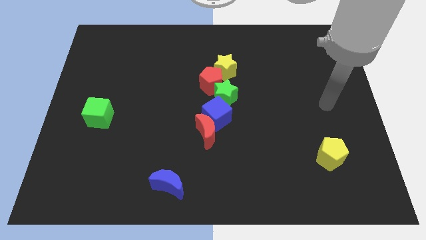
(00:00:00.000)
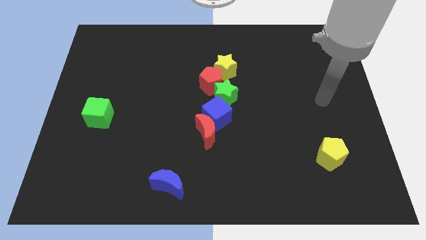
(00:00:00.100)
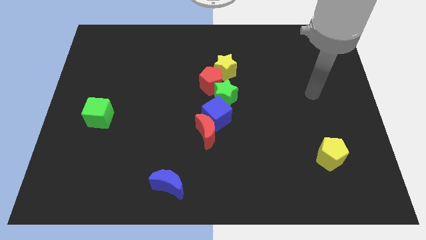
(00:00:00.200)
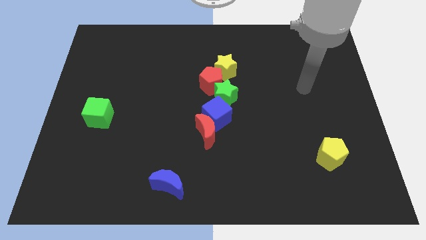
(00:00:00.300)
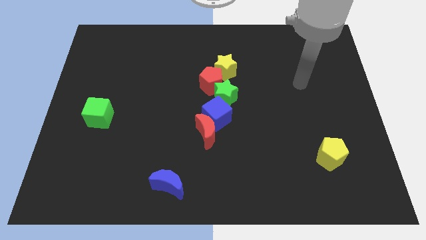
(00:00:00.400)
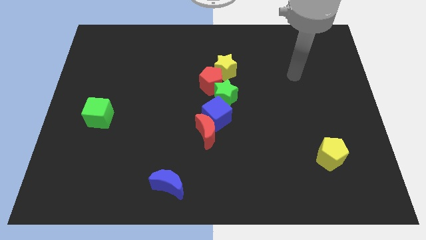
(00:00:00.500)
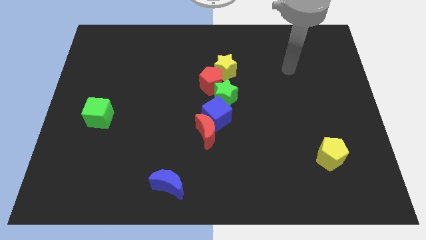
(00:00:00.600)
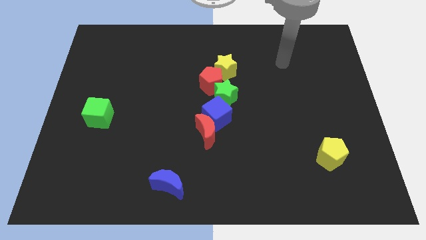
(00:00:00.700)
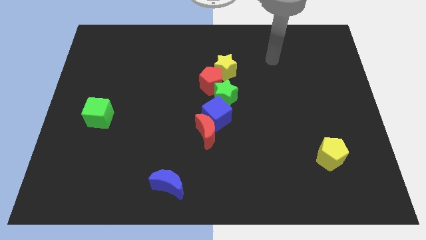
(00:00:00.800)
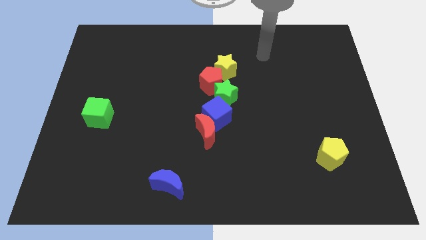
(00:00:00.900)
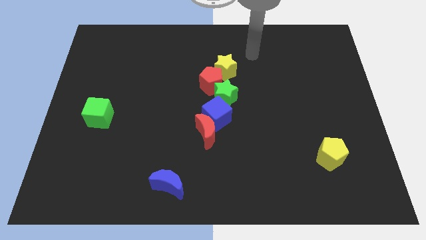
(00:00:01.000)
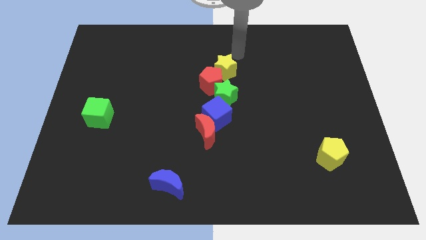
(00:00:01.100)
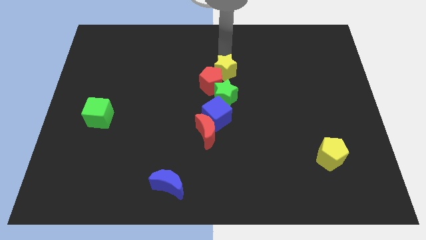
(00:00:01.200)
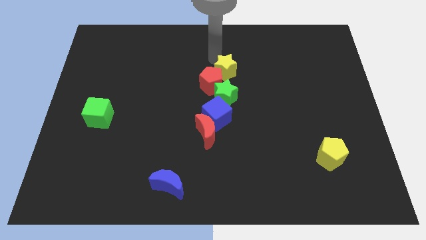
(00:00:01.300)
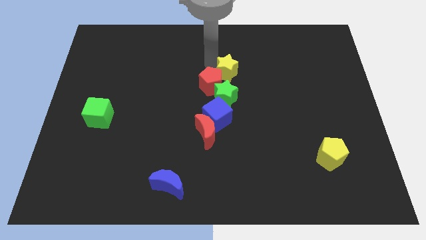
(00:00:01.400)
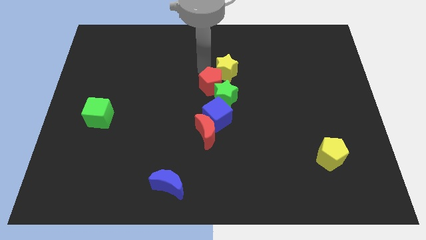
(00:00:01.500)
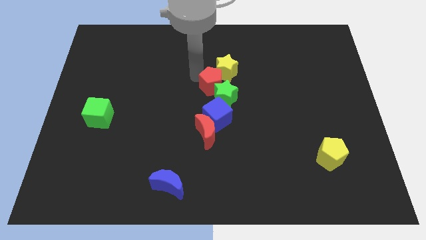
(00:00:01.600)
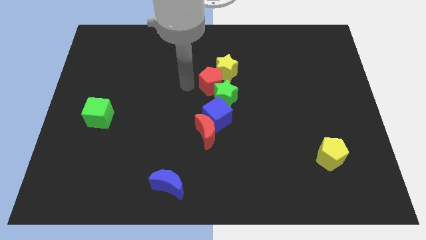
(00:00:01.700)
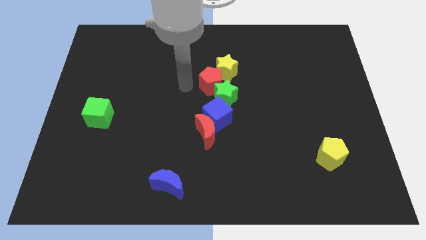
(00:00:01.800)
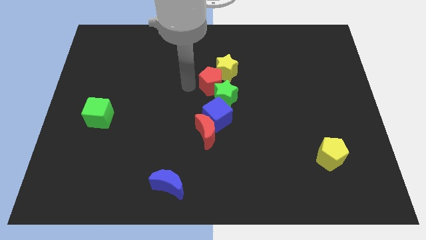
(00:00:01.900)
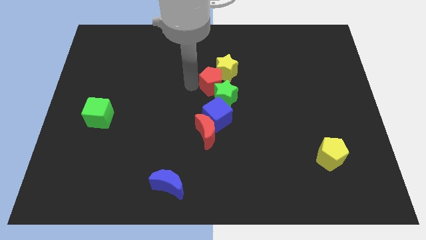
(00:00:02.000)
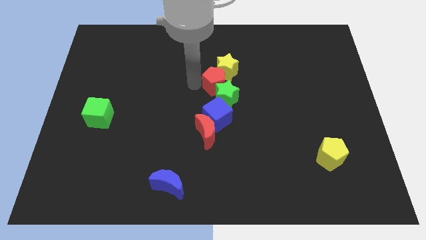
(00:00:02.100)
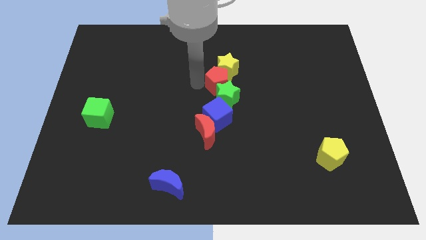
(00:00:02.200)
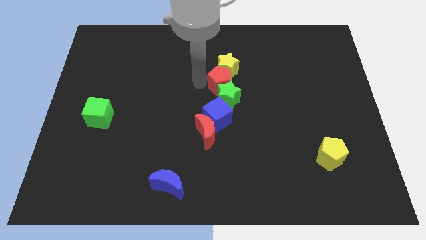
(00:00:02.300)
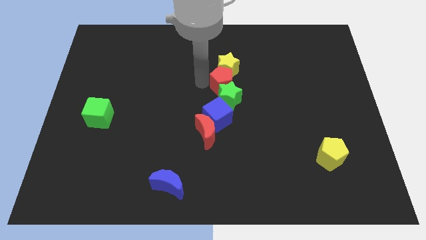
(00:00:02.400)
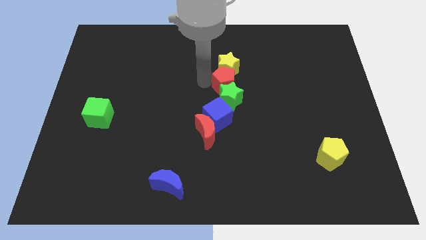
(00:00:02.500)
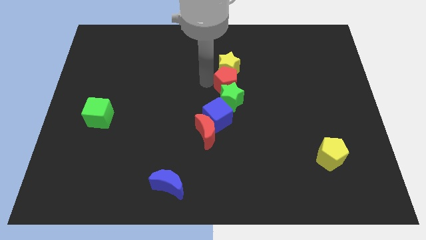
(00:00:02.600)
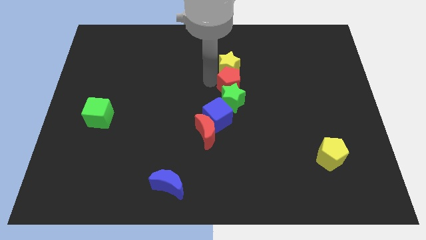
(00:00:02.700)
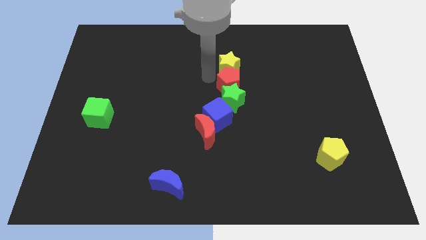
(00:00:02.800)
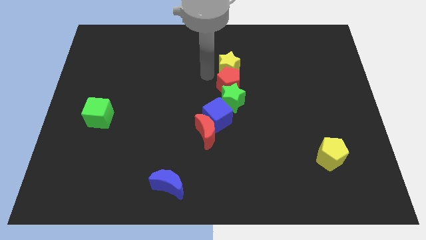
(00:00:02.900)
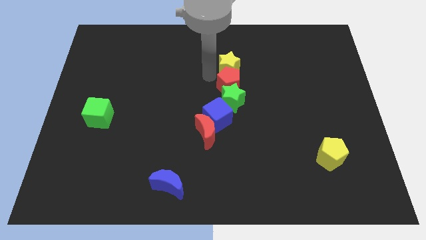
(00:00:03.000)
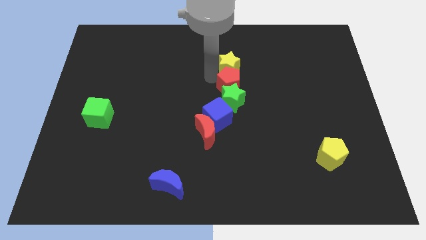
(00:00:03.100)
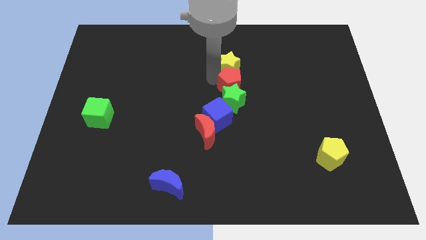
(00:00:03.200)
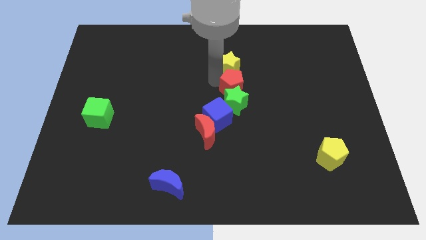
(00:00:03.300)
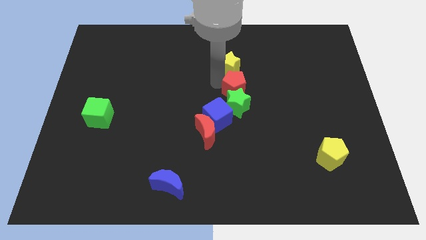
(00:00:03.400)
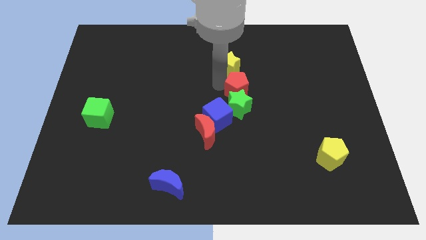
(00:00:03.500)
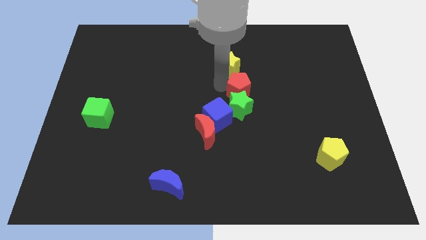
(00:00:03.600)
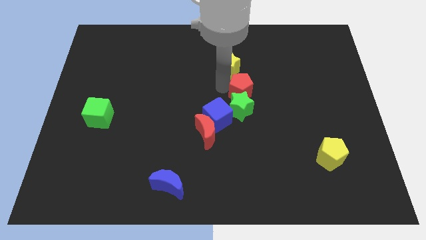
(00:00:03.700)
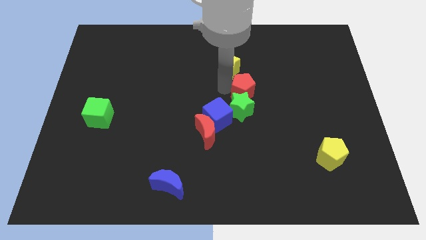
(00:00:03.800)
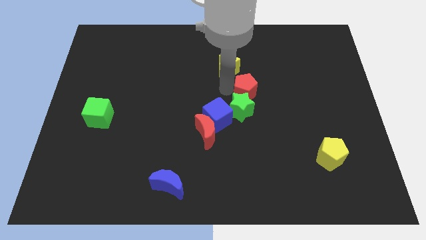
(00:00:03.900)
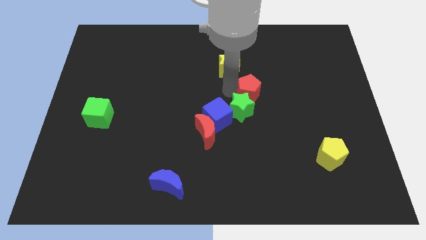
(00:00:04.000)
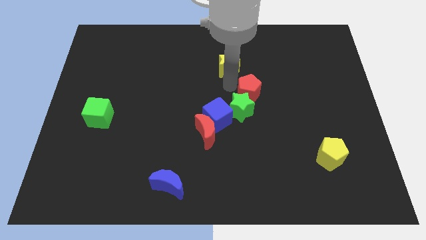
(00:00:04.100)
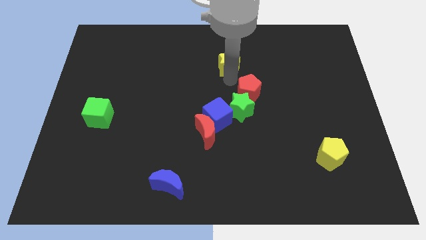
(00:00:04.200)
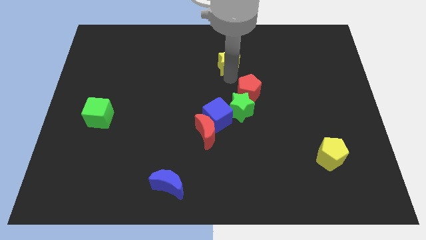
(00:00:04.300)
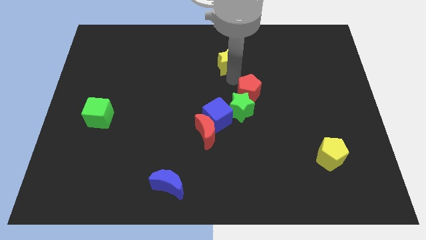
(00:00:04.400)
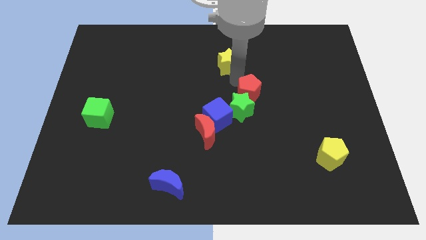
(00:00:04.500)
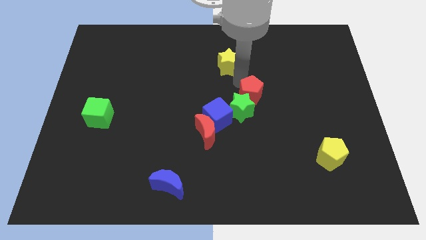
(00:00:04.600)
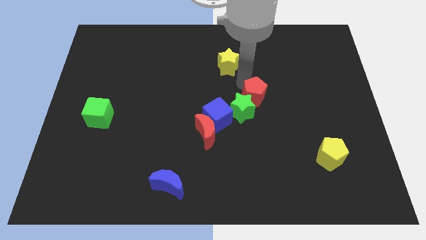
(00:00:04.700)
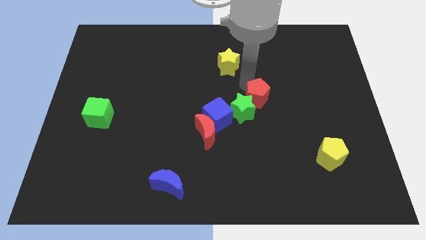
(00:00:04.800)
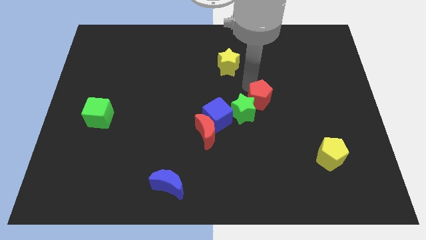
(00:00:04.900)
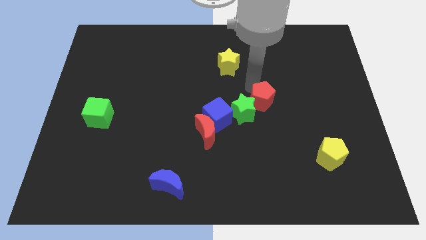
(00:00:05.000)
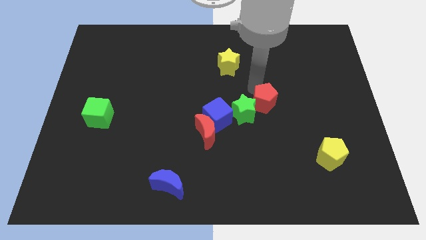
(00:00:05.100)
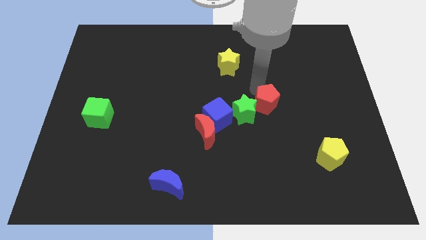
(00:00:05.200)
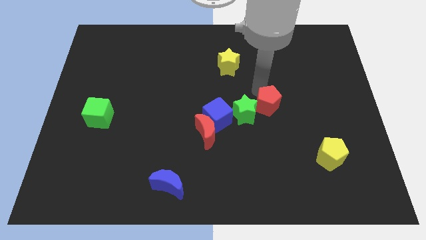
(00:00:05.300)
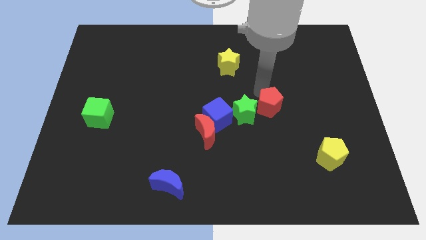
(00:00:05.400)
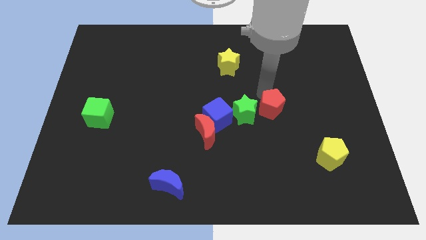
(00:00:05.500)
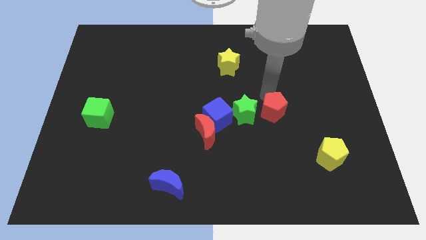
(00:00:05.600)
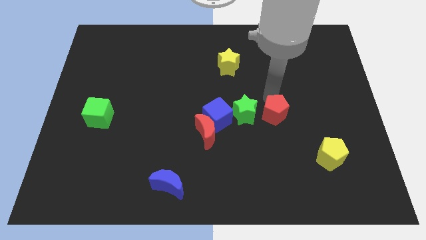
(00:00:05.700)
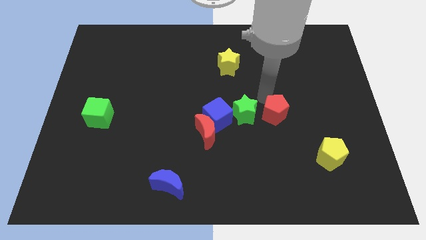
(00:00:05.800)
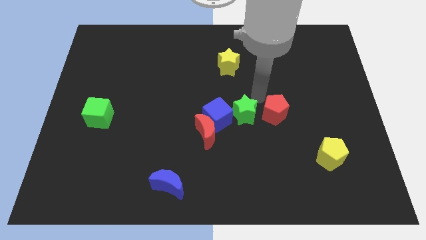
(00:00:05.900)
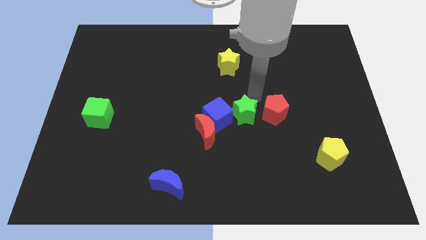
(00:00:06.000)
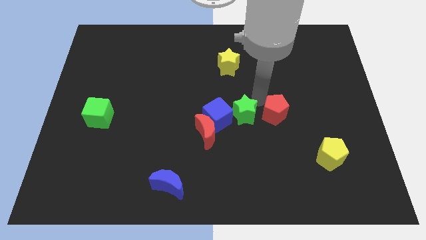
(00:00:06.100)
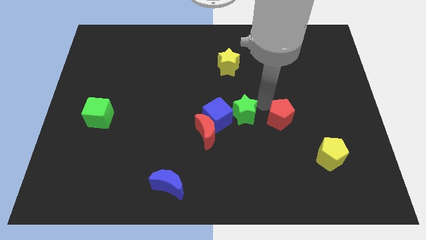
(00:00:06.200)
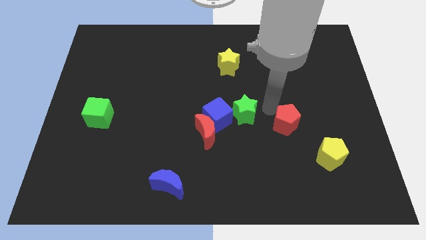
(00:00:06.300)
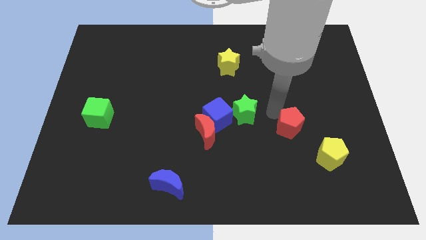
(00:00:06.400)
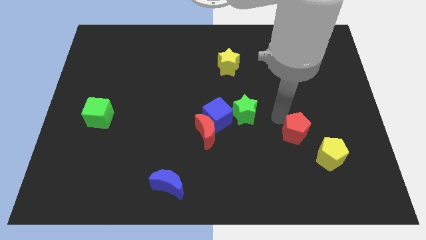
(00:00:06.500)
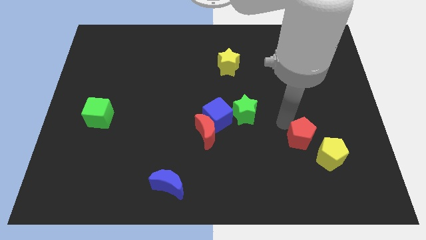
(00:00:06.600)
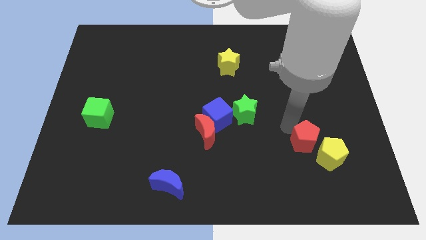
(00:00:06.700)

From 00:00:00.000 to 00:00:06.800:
move the red pentagon to the yellow pentagon
